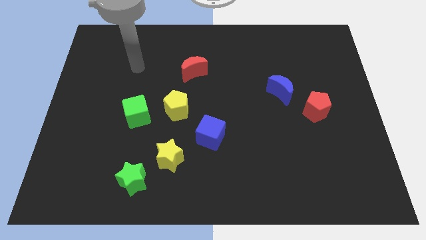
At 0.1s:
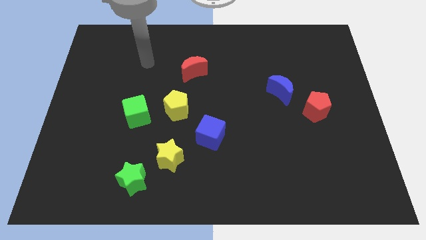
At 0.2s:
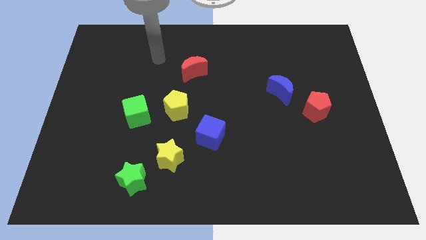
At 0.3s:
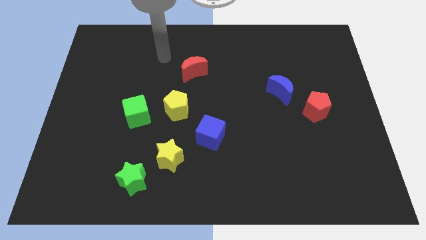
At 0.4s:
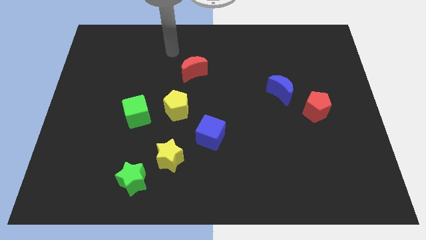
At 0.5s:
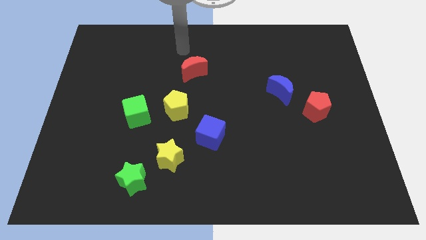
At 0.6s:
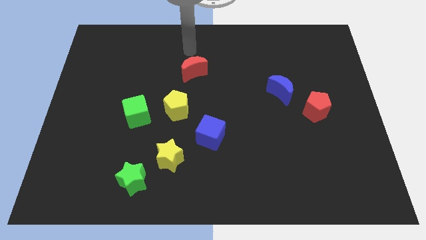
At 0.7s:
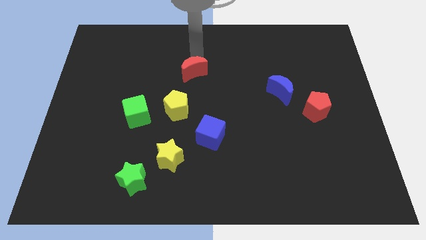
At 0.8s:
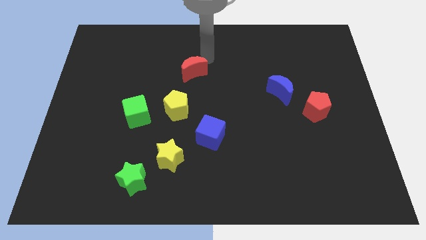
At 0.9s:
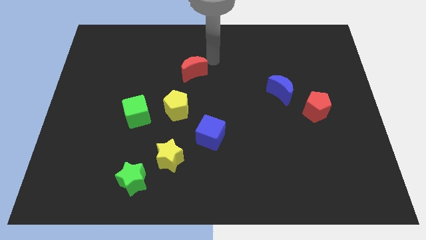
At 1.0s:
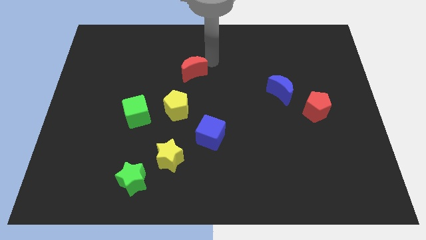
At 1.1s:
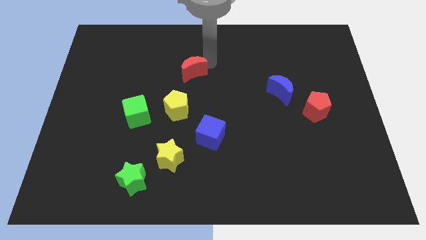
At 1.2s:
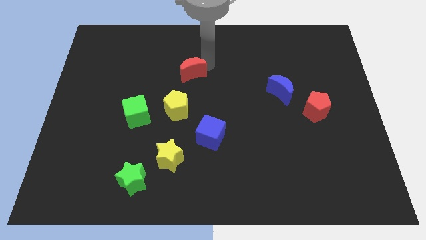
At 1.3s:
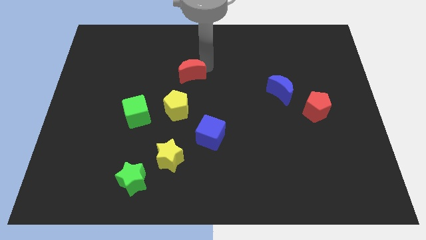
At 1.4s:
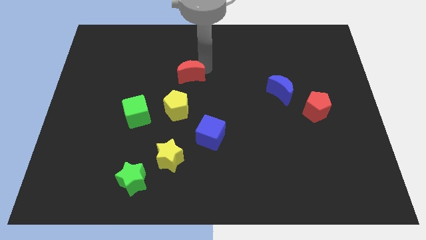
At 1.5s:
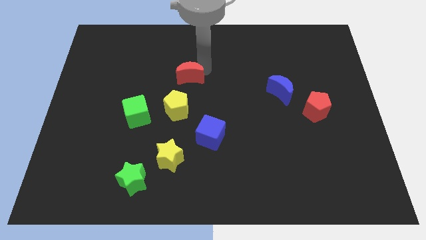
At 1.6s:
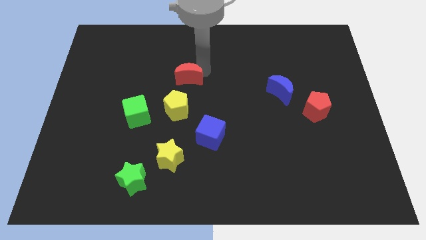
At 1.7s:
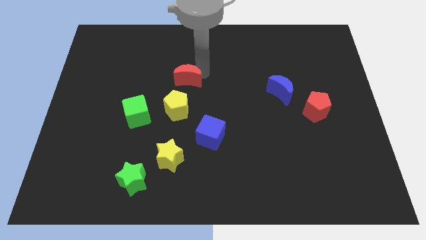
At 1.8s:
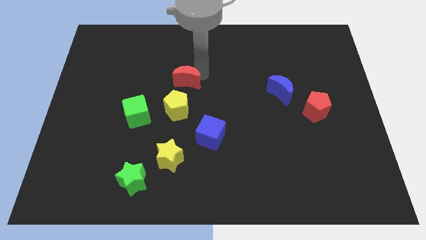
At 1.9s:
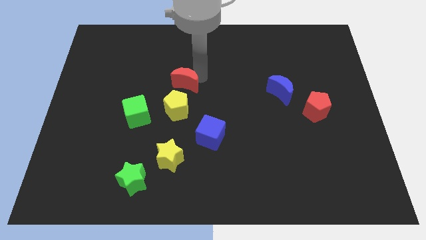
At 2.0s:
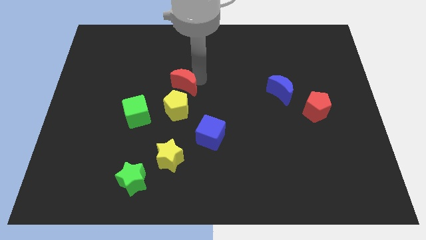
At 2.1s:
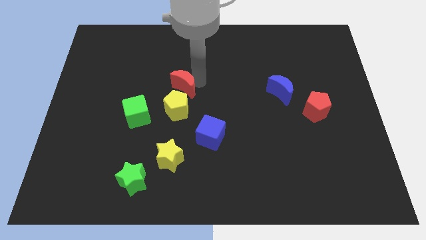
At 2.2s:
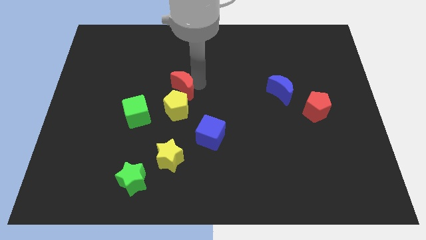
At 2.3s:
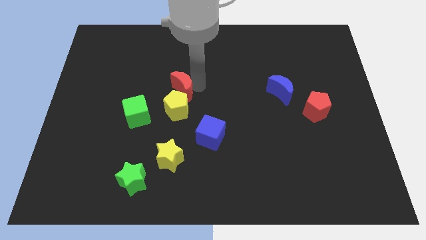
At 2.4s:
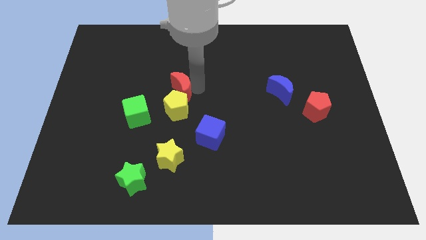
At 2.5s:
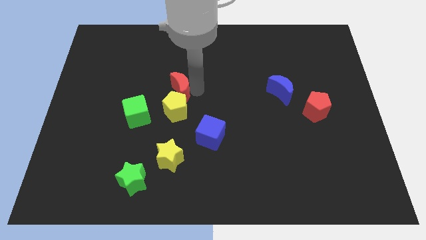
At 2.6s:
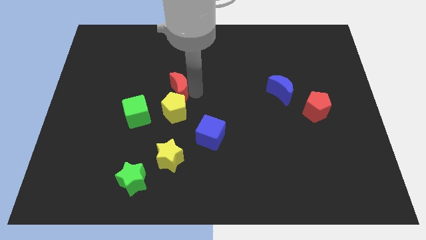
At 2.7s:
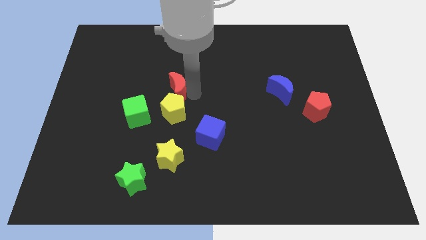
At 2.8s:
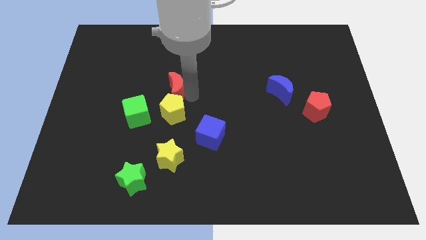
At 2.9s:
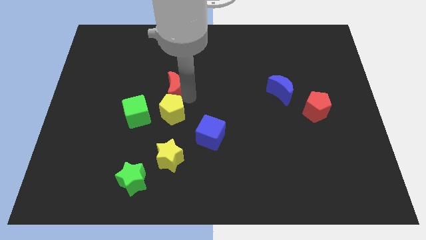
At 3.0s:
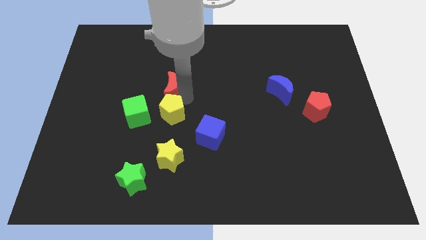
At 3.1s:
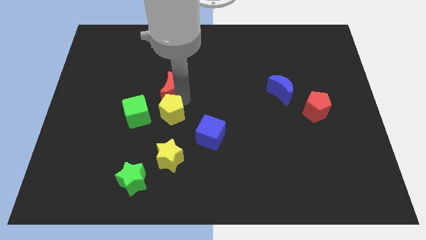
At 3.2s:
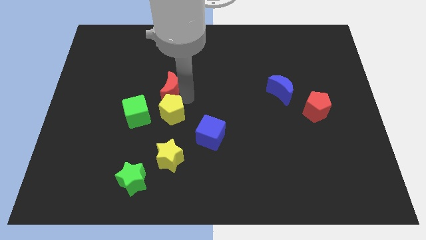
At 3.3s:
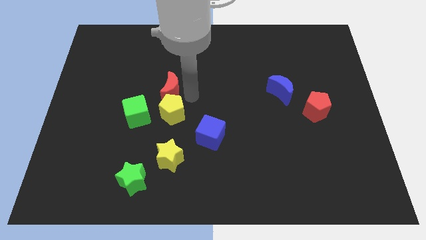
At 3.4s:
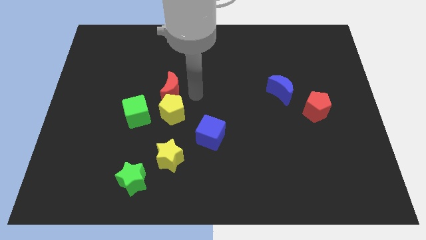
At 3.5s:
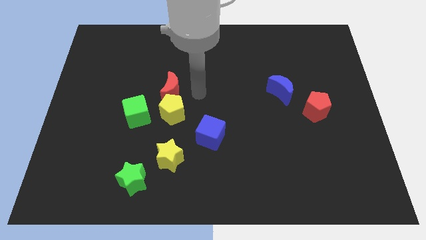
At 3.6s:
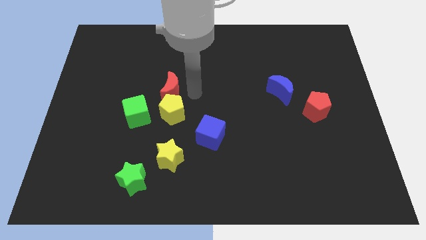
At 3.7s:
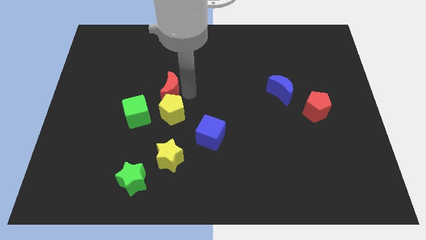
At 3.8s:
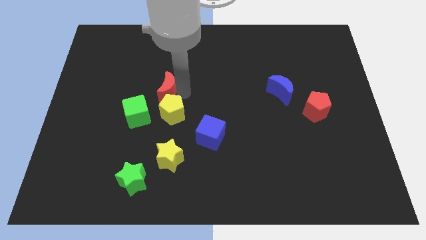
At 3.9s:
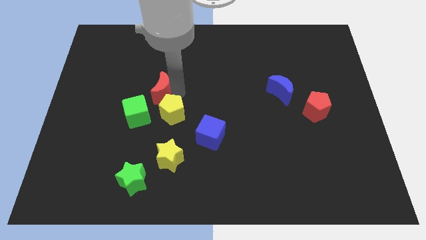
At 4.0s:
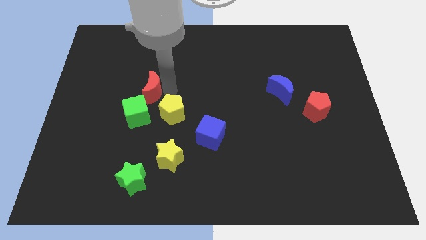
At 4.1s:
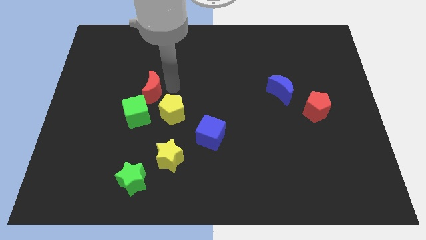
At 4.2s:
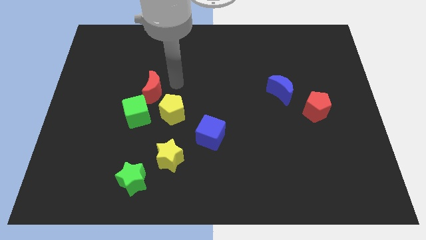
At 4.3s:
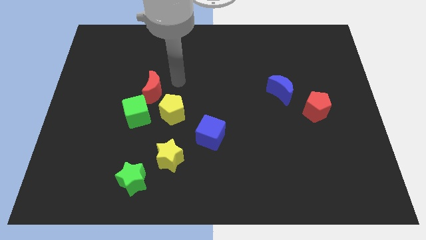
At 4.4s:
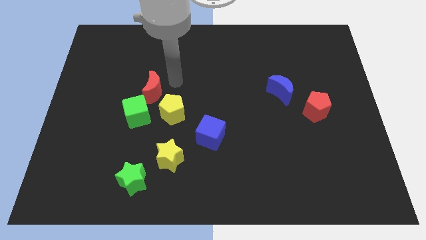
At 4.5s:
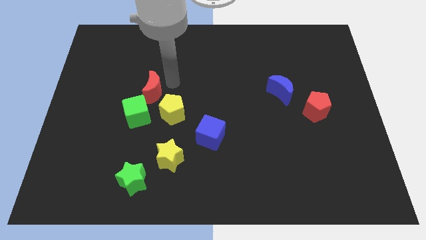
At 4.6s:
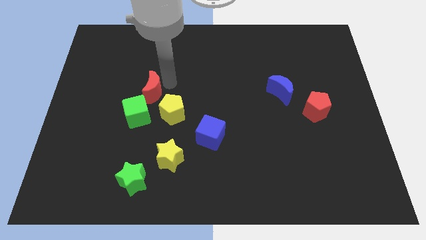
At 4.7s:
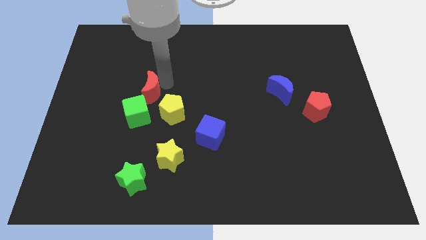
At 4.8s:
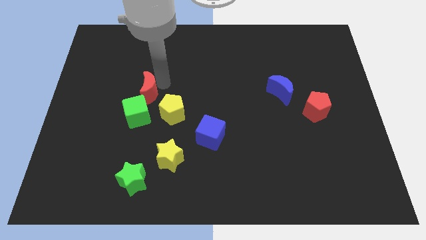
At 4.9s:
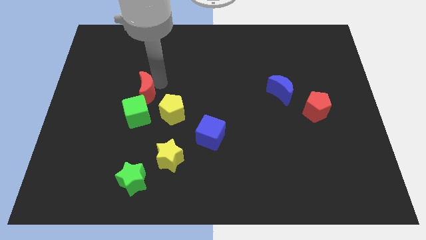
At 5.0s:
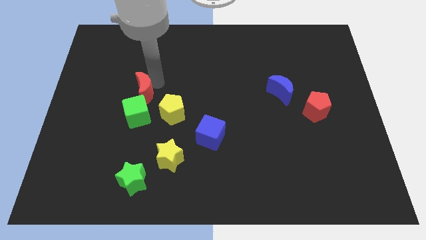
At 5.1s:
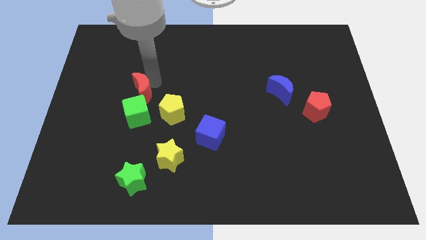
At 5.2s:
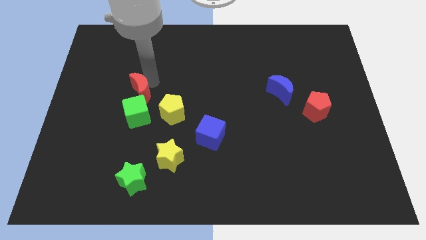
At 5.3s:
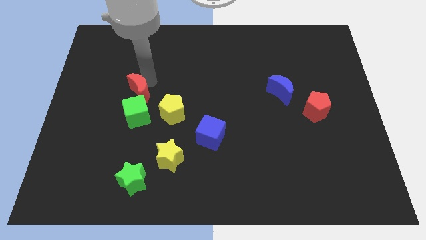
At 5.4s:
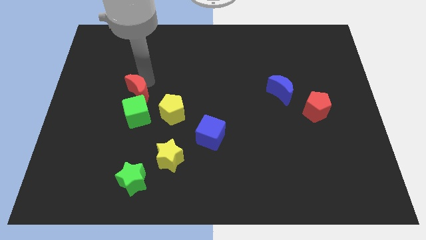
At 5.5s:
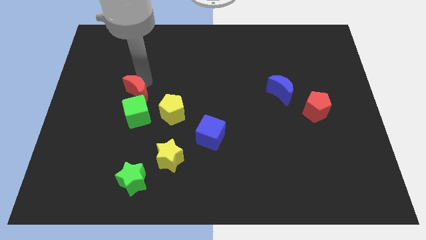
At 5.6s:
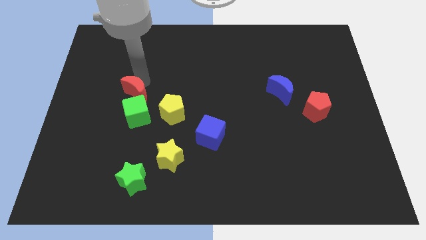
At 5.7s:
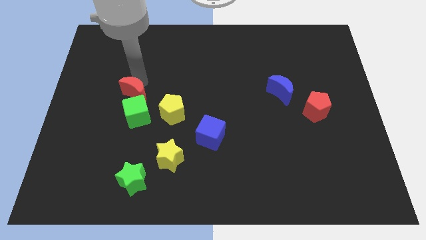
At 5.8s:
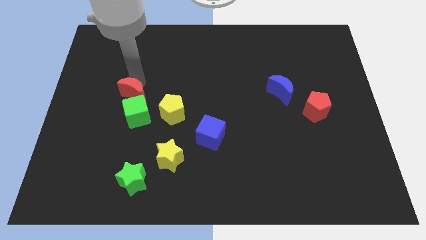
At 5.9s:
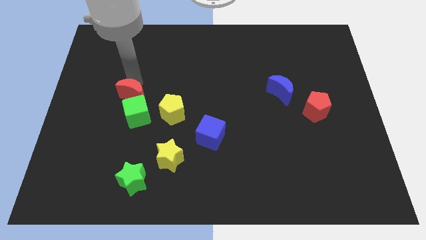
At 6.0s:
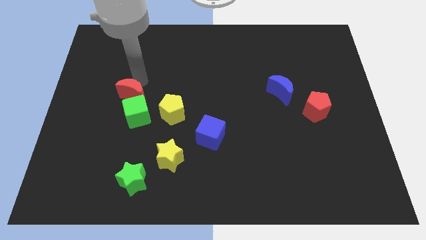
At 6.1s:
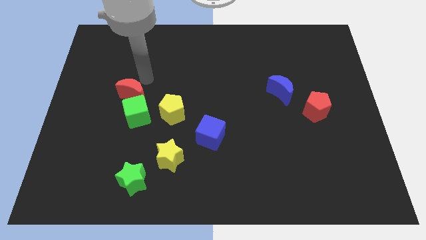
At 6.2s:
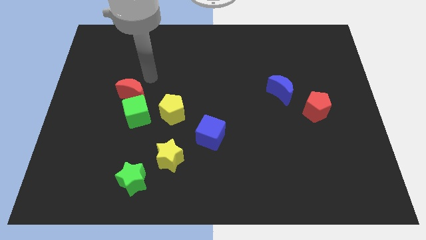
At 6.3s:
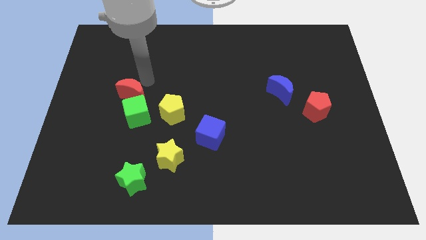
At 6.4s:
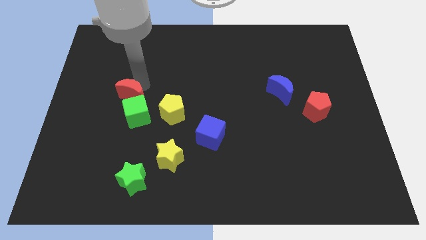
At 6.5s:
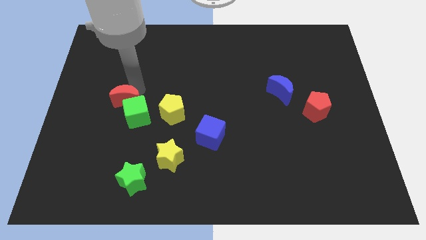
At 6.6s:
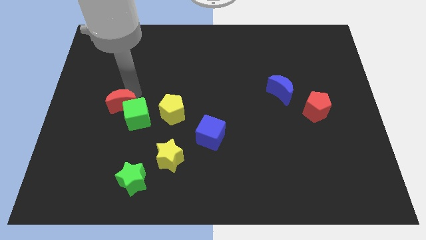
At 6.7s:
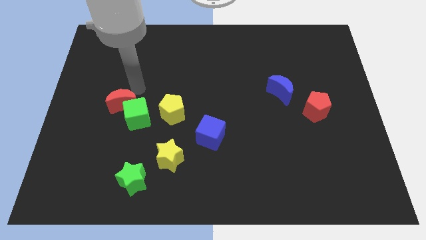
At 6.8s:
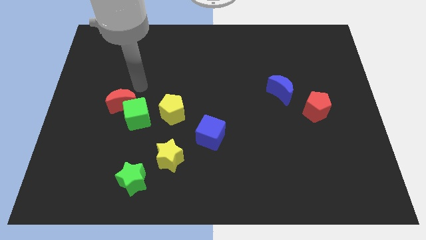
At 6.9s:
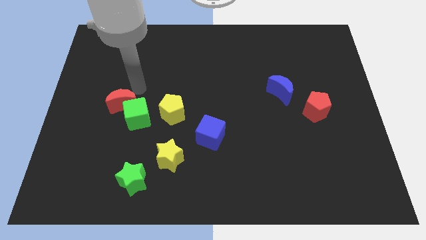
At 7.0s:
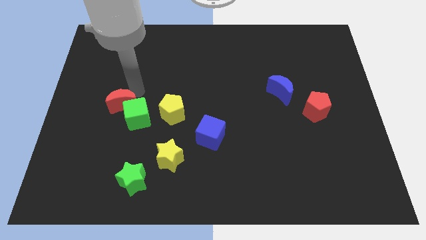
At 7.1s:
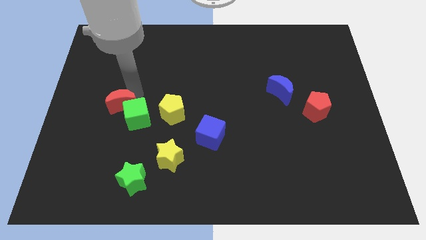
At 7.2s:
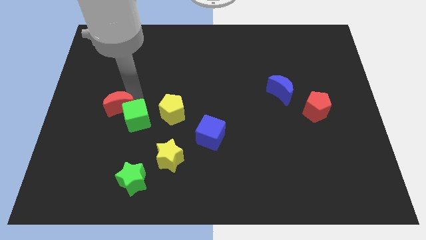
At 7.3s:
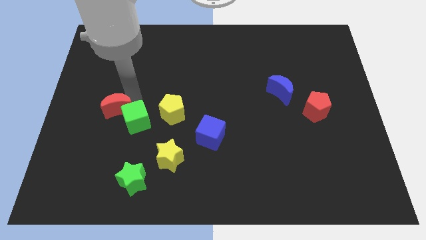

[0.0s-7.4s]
push the red moon down and then left

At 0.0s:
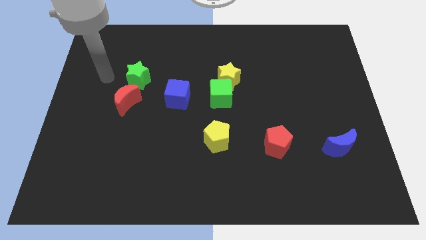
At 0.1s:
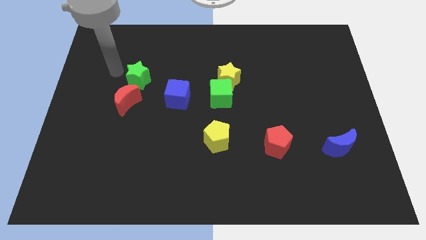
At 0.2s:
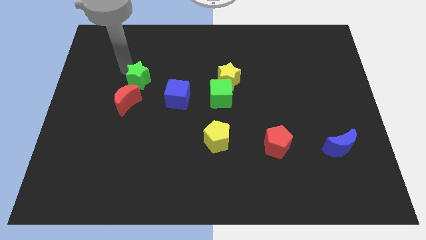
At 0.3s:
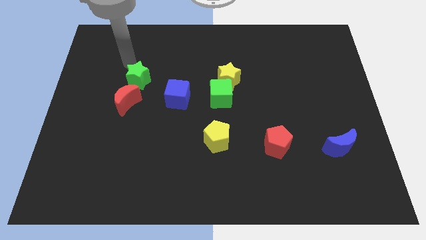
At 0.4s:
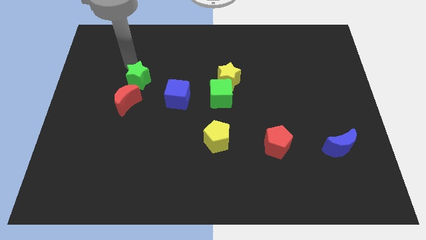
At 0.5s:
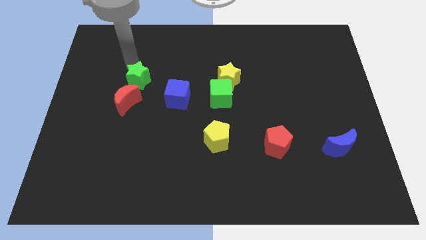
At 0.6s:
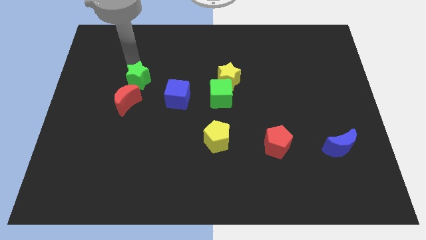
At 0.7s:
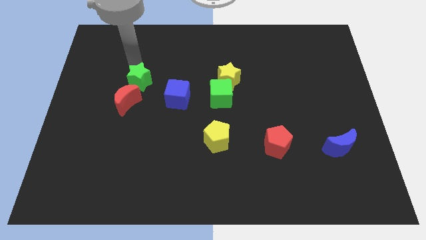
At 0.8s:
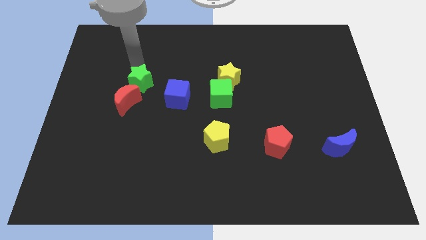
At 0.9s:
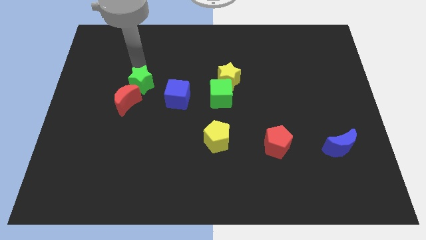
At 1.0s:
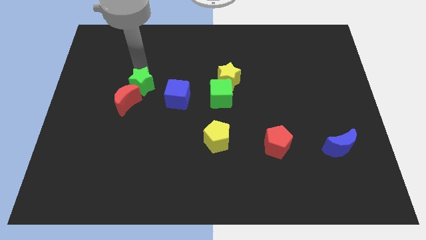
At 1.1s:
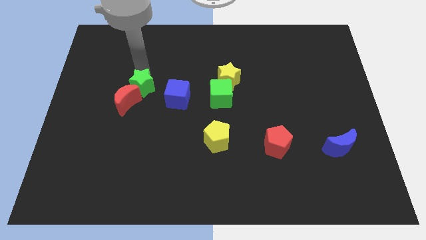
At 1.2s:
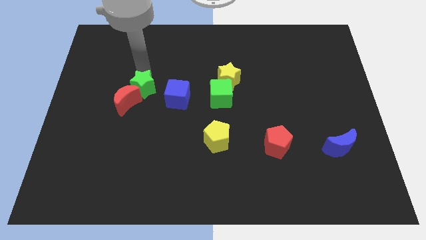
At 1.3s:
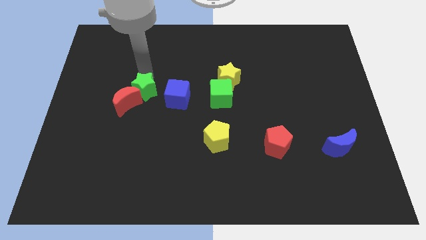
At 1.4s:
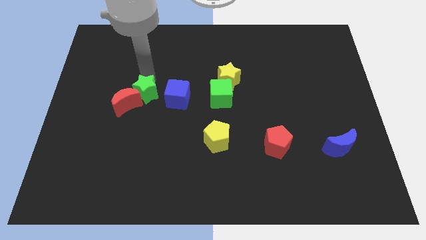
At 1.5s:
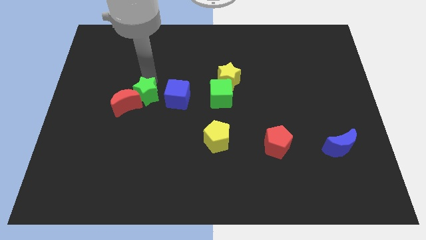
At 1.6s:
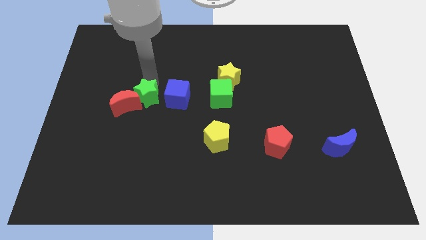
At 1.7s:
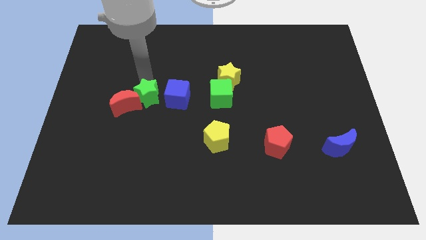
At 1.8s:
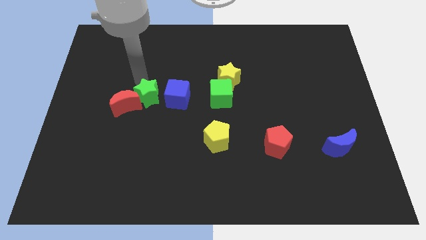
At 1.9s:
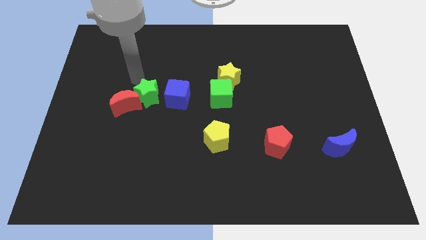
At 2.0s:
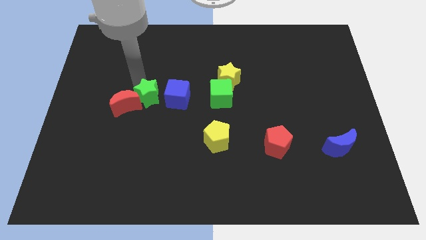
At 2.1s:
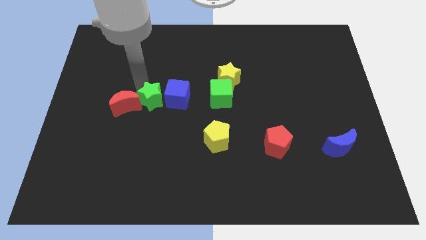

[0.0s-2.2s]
move the green star slightly down and then to the right
